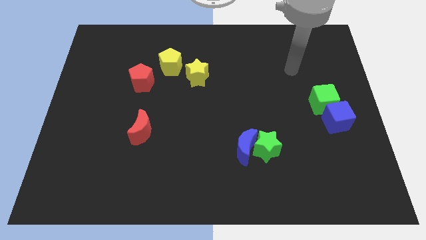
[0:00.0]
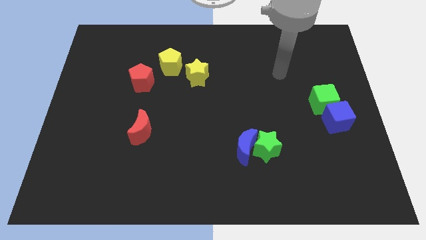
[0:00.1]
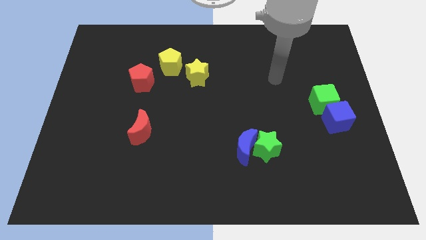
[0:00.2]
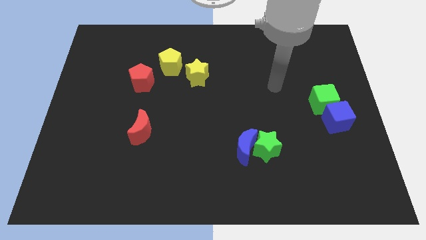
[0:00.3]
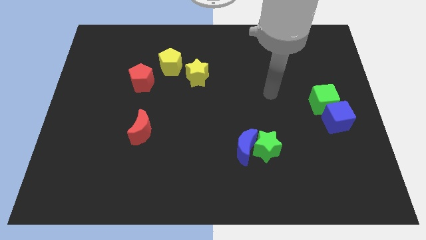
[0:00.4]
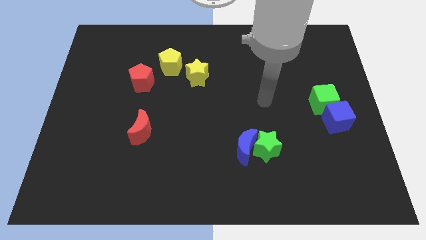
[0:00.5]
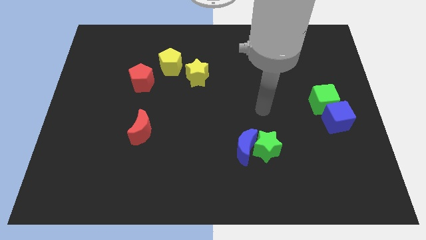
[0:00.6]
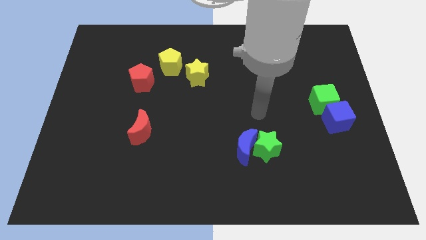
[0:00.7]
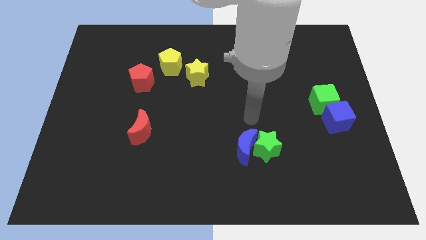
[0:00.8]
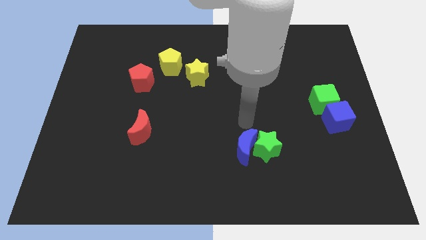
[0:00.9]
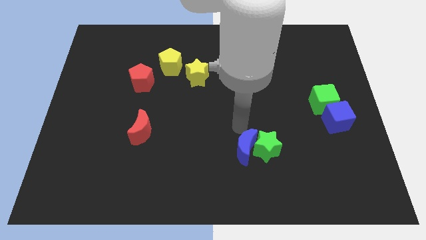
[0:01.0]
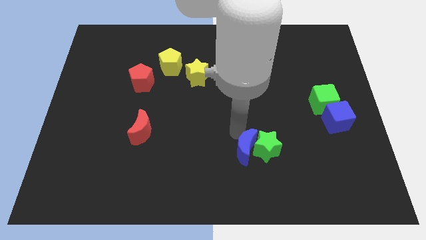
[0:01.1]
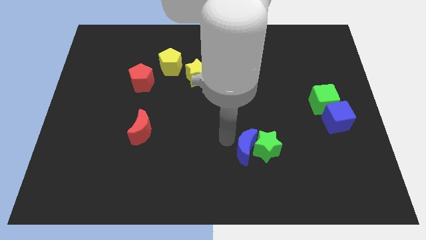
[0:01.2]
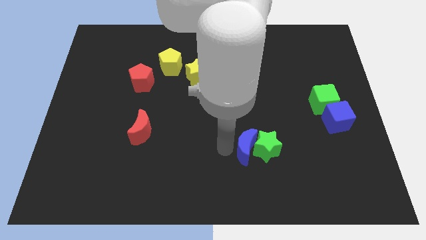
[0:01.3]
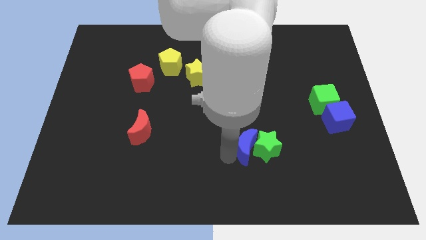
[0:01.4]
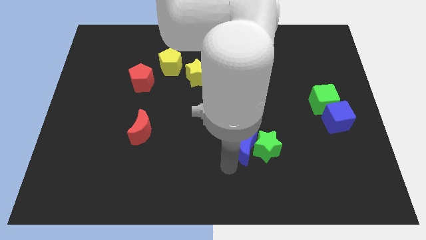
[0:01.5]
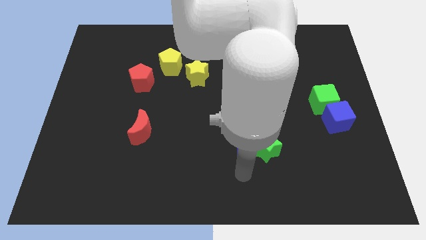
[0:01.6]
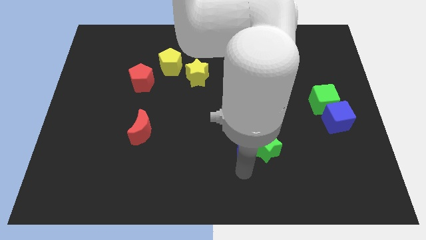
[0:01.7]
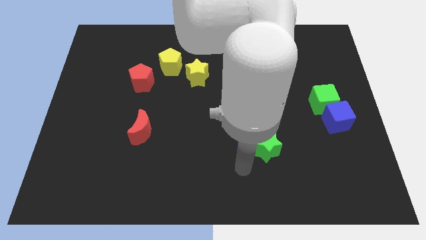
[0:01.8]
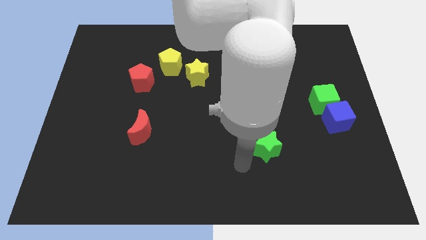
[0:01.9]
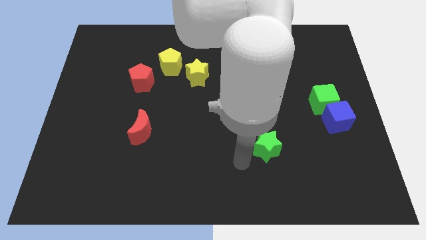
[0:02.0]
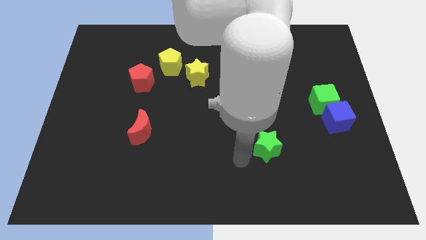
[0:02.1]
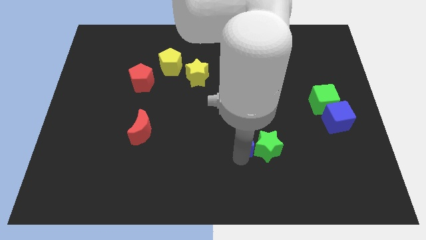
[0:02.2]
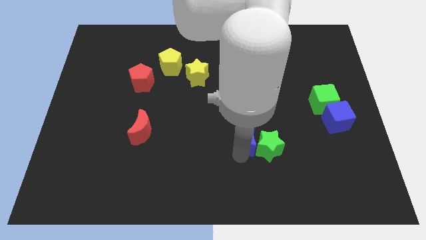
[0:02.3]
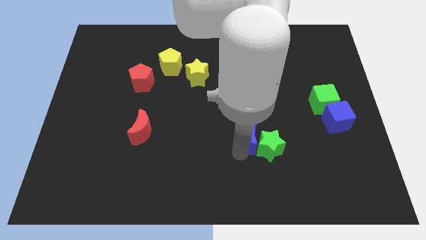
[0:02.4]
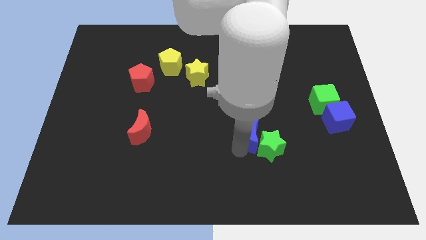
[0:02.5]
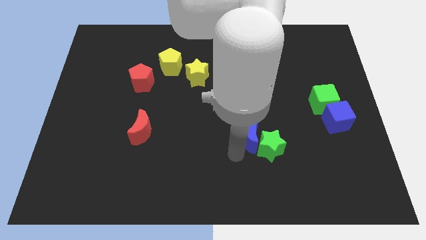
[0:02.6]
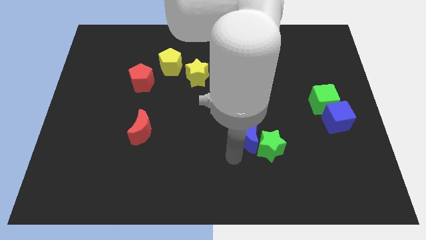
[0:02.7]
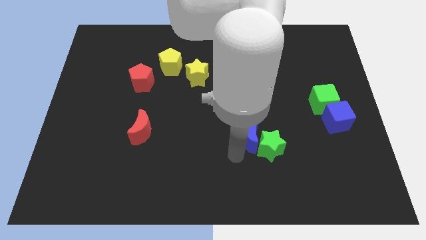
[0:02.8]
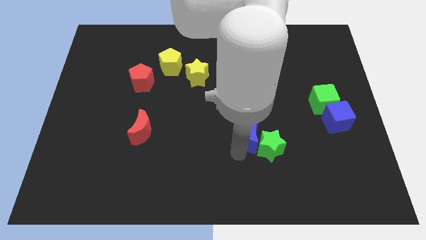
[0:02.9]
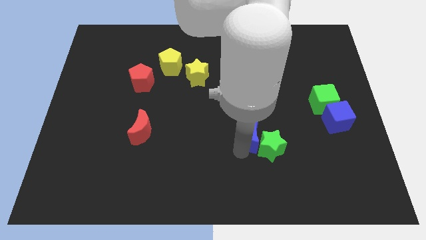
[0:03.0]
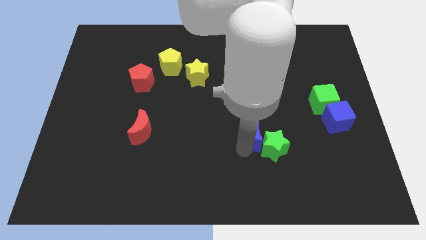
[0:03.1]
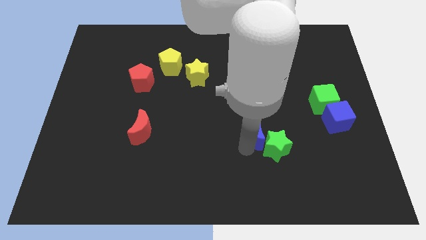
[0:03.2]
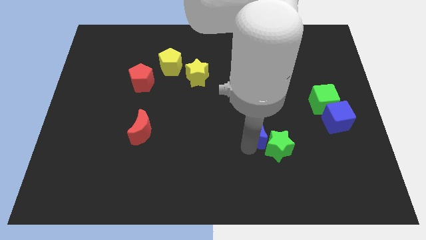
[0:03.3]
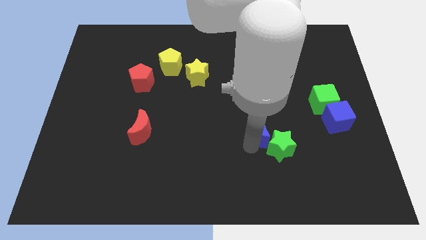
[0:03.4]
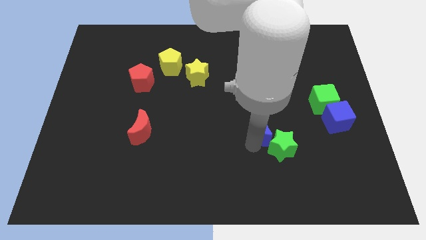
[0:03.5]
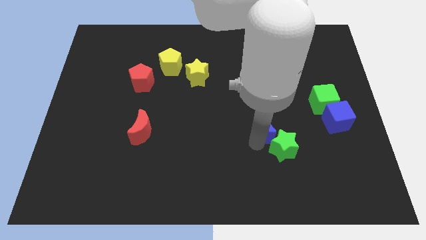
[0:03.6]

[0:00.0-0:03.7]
push the blue moon up and to the right a bit

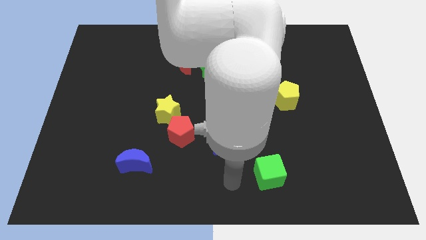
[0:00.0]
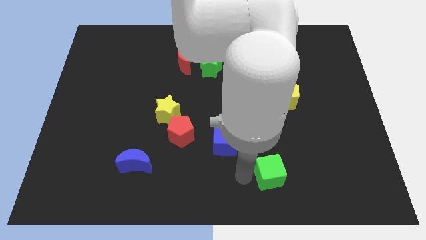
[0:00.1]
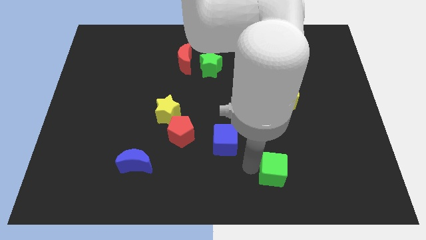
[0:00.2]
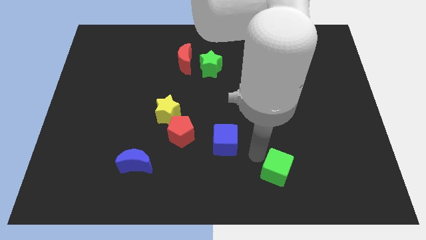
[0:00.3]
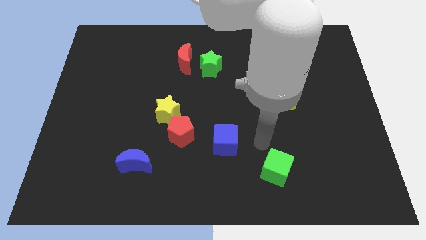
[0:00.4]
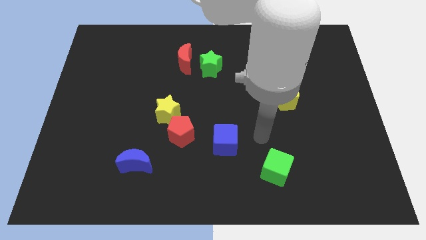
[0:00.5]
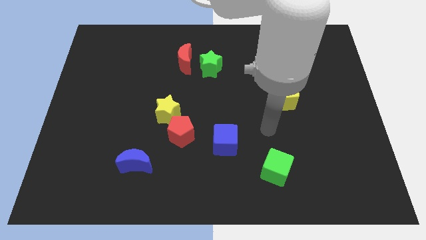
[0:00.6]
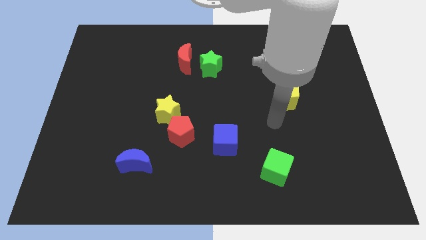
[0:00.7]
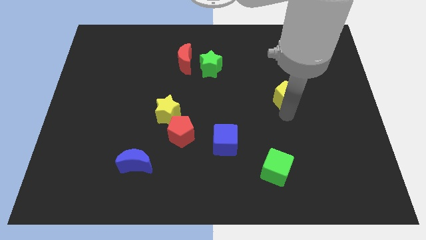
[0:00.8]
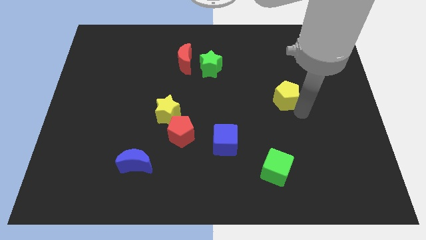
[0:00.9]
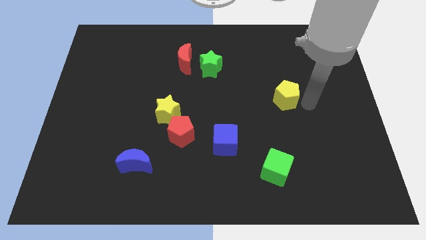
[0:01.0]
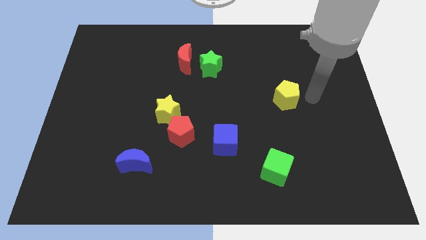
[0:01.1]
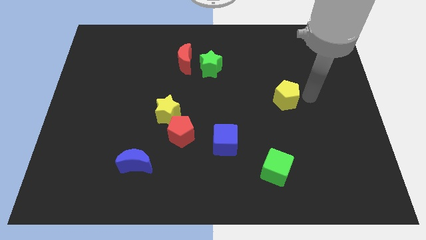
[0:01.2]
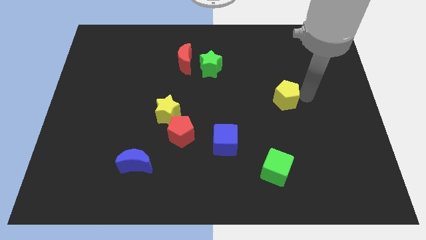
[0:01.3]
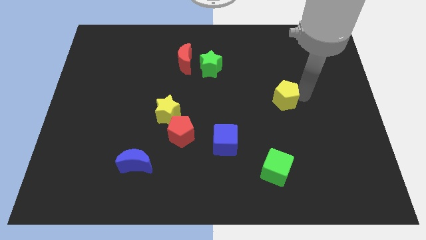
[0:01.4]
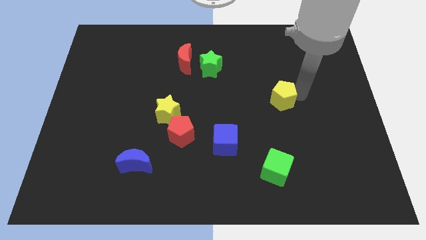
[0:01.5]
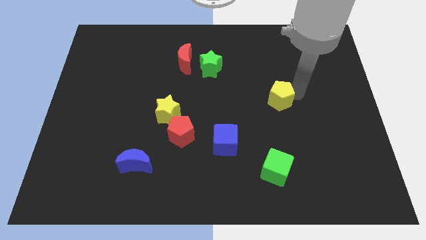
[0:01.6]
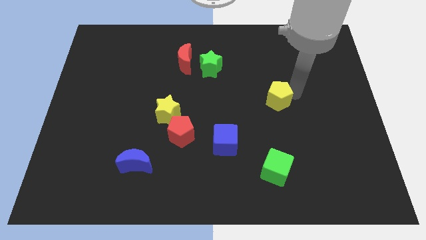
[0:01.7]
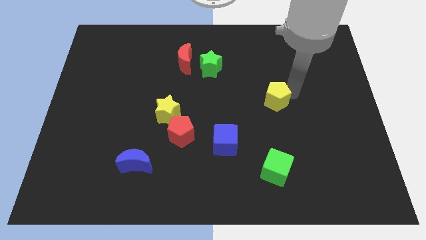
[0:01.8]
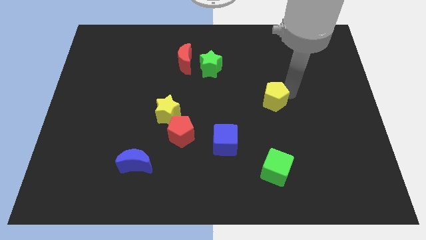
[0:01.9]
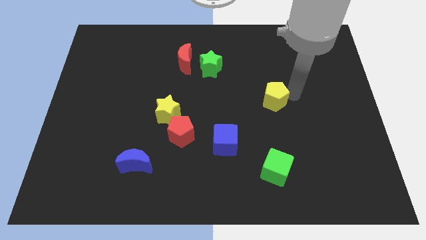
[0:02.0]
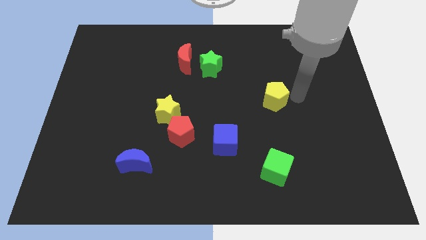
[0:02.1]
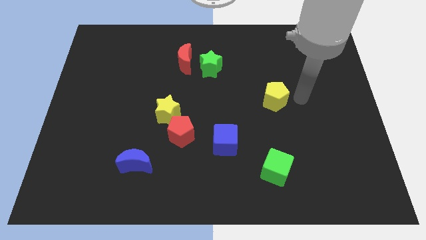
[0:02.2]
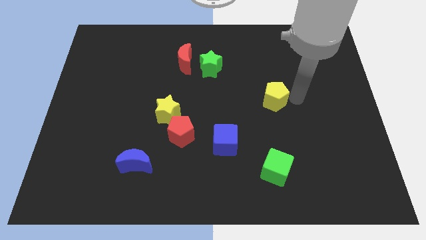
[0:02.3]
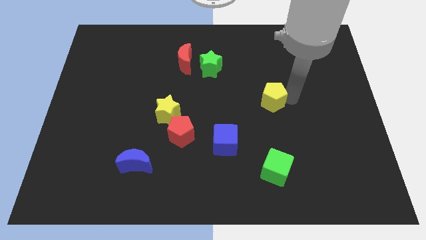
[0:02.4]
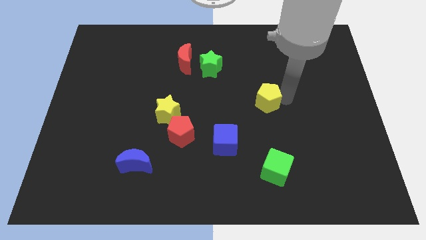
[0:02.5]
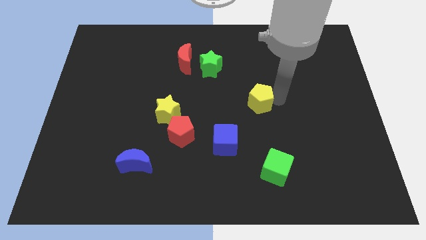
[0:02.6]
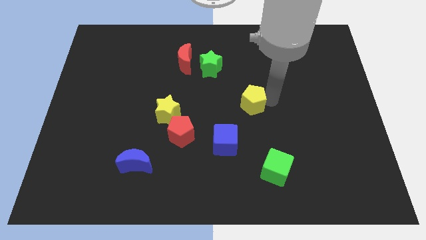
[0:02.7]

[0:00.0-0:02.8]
slightly slide the yellow pentagon left

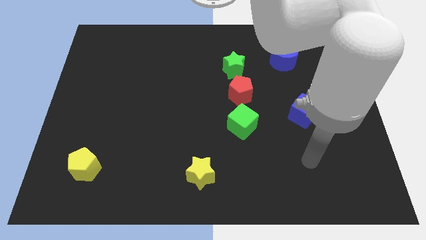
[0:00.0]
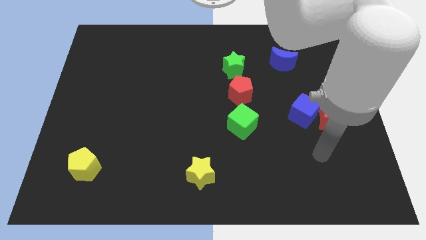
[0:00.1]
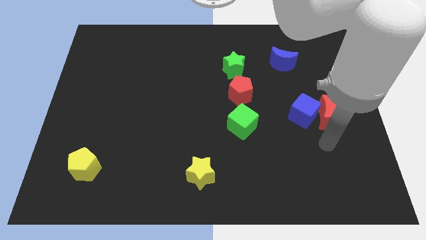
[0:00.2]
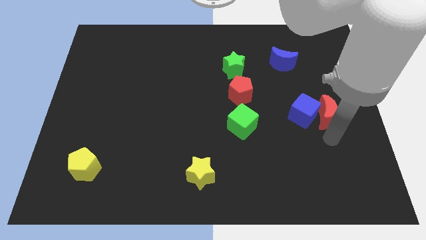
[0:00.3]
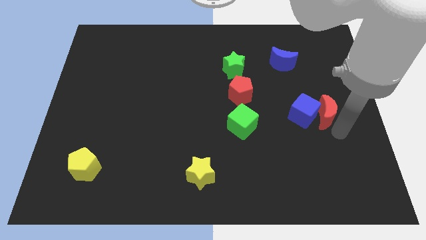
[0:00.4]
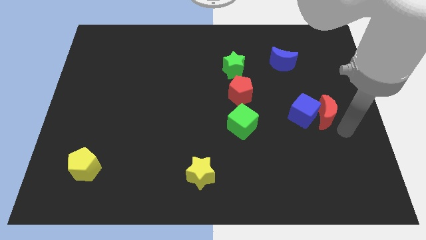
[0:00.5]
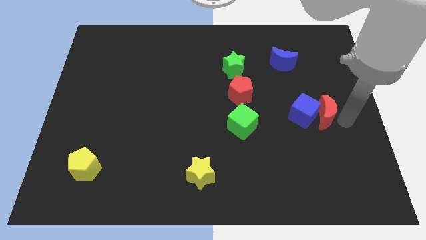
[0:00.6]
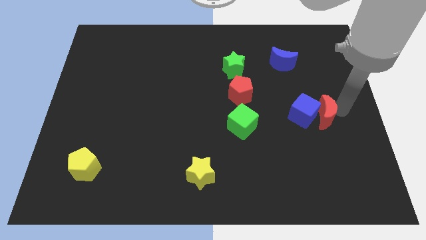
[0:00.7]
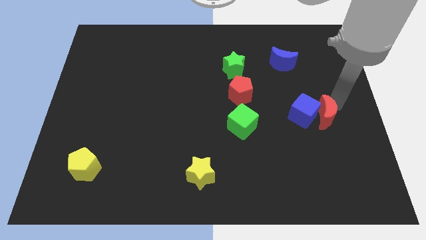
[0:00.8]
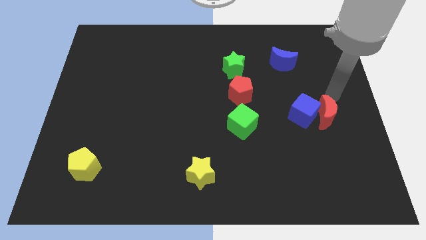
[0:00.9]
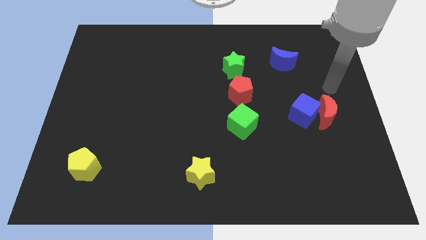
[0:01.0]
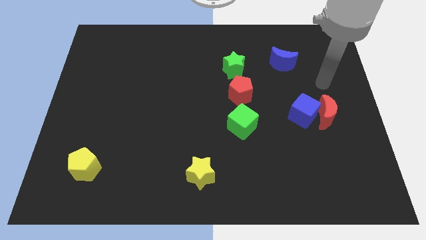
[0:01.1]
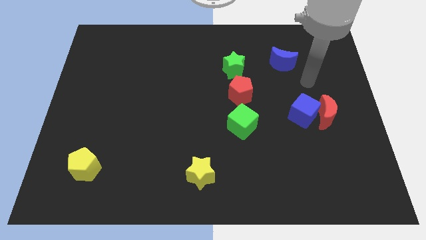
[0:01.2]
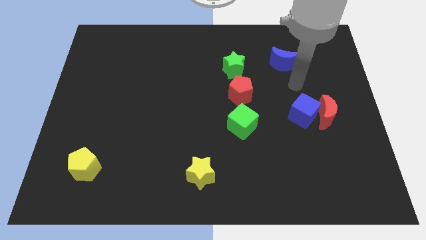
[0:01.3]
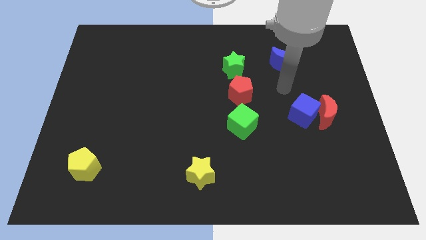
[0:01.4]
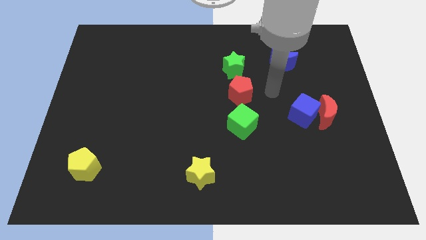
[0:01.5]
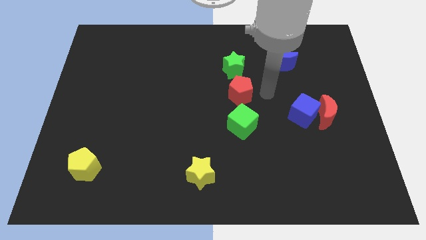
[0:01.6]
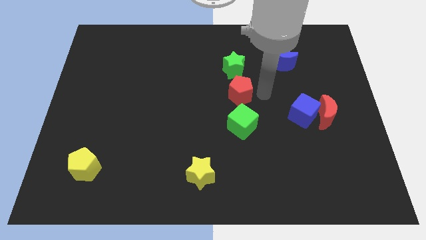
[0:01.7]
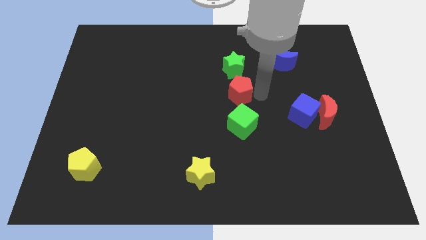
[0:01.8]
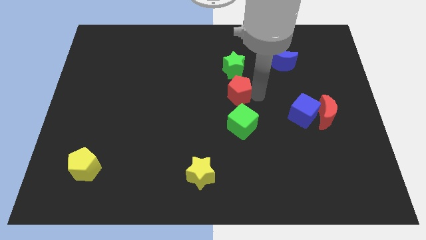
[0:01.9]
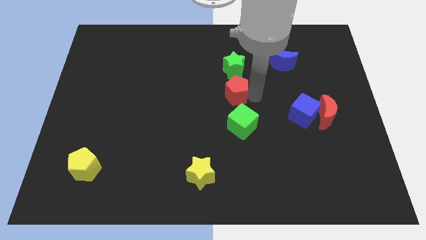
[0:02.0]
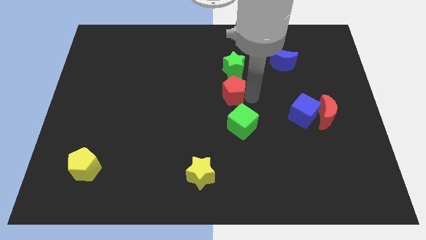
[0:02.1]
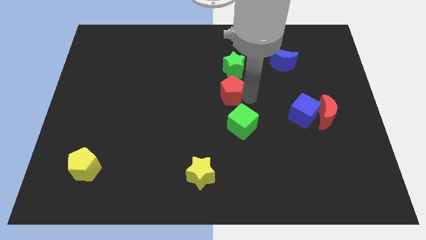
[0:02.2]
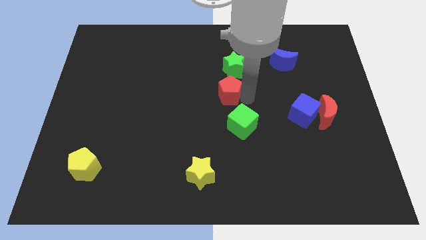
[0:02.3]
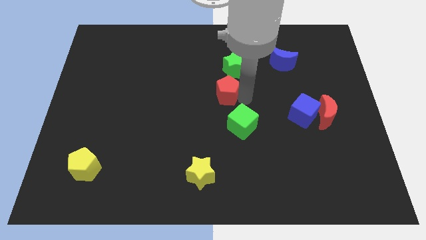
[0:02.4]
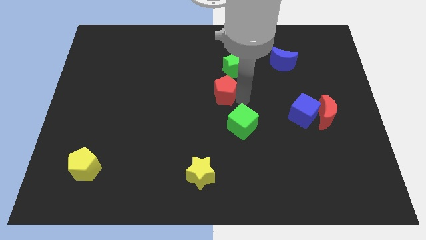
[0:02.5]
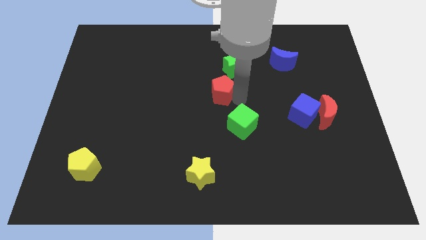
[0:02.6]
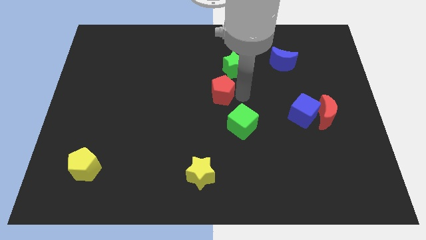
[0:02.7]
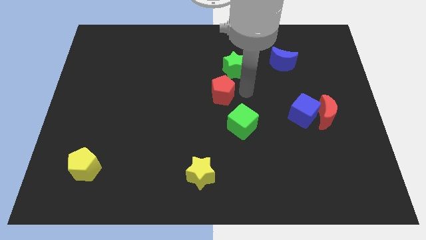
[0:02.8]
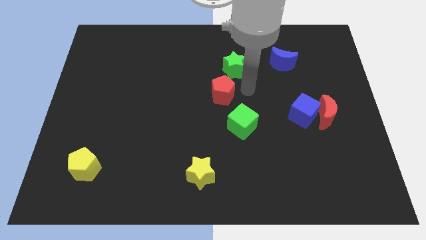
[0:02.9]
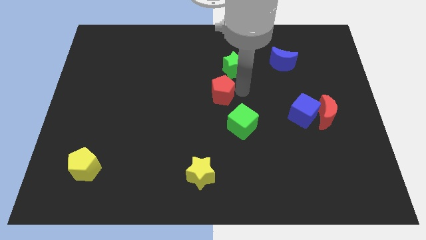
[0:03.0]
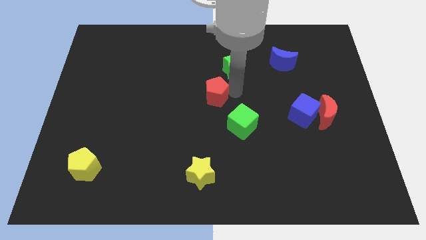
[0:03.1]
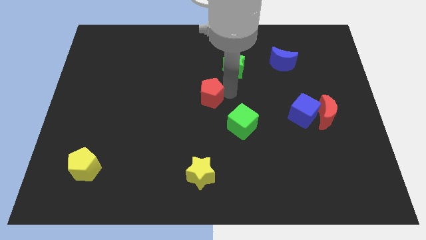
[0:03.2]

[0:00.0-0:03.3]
slightly push the red pentagon left
